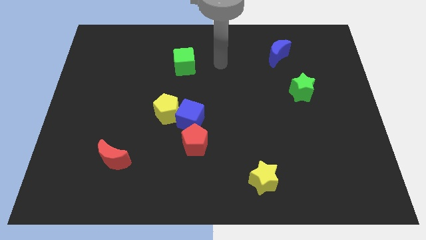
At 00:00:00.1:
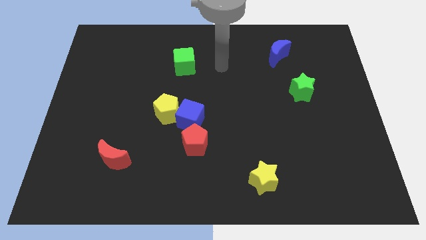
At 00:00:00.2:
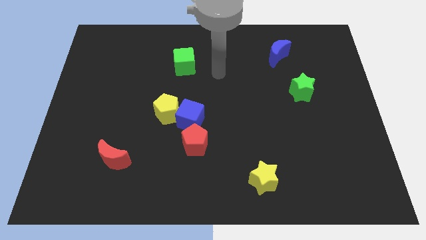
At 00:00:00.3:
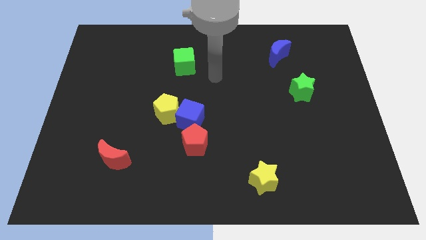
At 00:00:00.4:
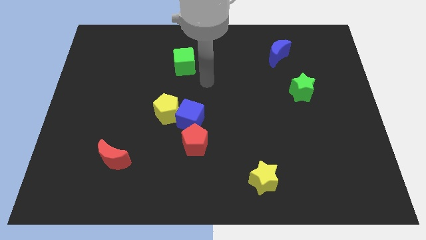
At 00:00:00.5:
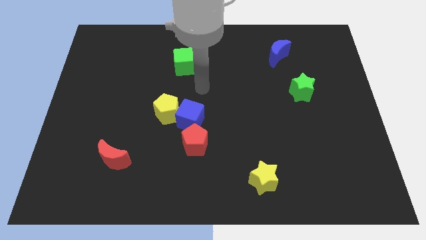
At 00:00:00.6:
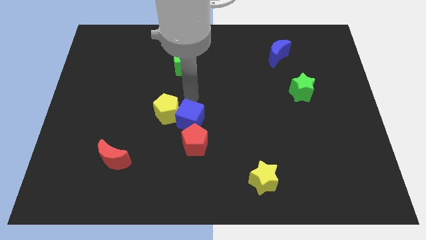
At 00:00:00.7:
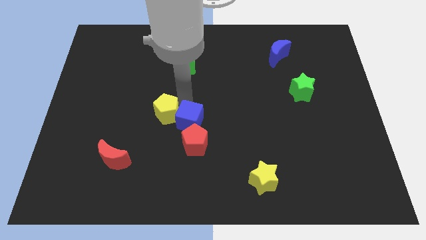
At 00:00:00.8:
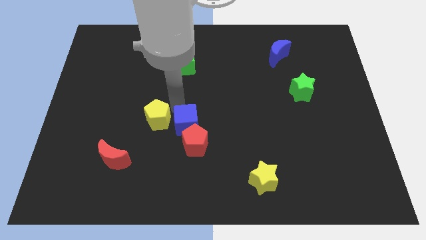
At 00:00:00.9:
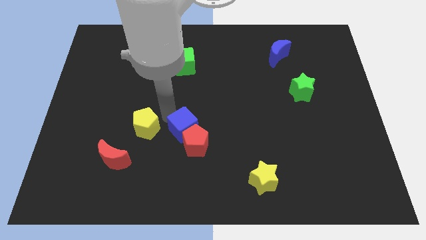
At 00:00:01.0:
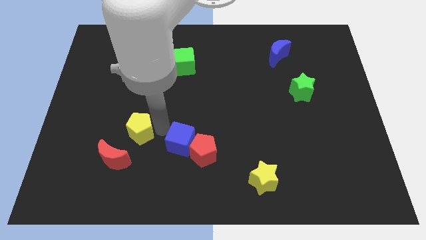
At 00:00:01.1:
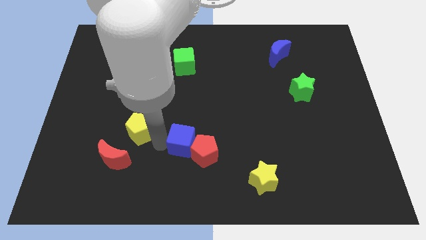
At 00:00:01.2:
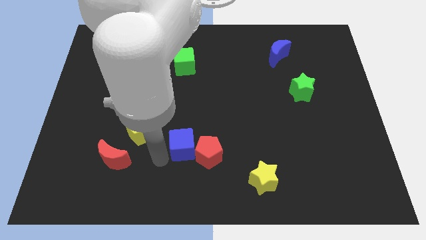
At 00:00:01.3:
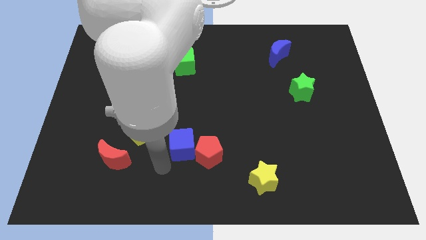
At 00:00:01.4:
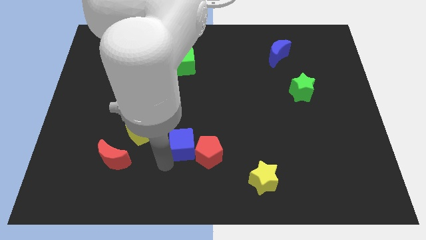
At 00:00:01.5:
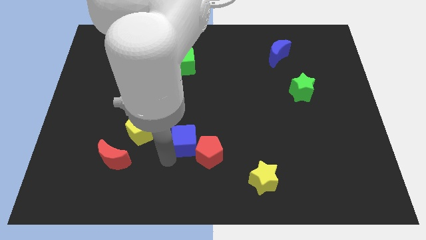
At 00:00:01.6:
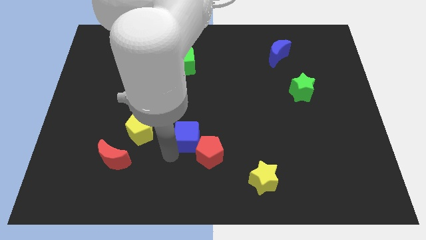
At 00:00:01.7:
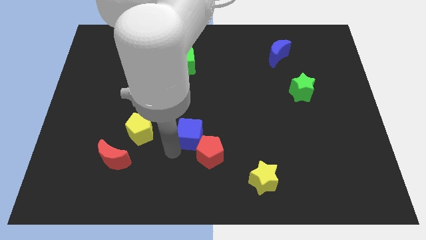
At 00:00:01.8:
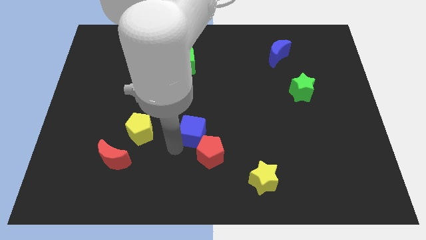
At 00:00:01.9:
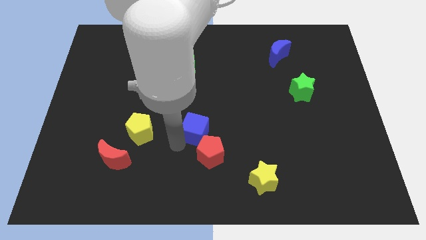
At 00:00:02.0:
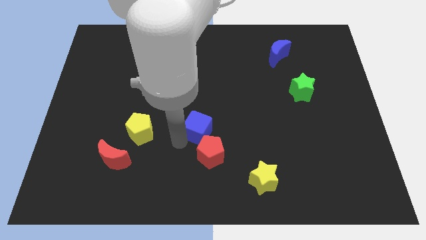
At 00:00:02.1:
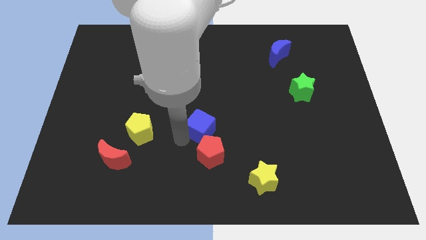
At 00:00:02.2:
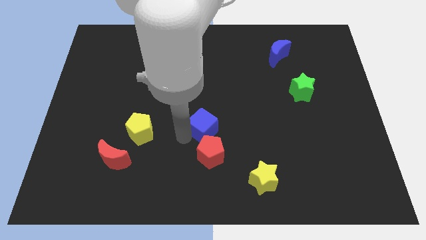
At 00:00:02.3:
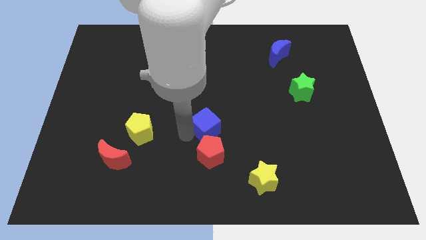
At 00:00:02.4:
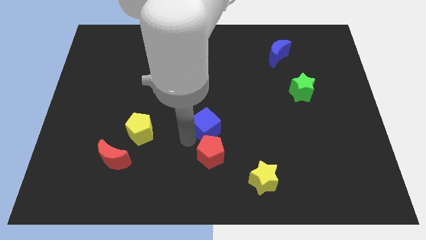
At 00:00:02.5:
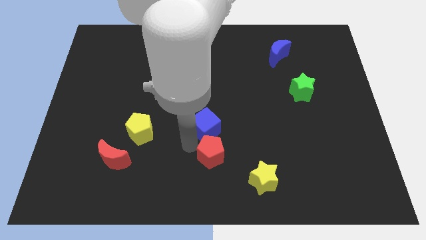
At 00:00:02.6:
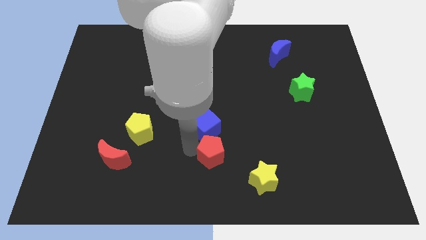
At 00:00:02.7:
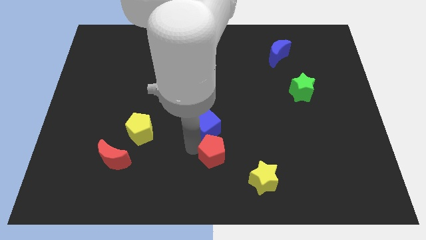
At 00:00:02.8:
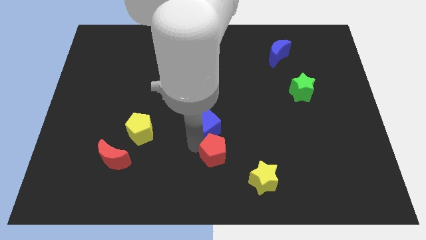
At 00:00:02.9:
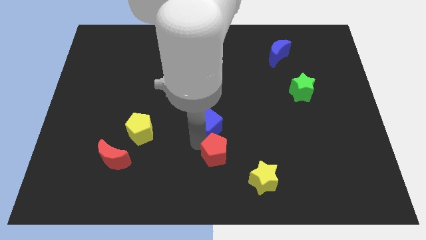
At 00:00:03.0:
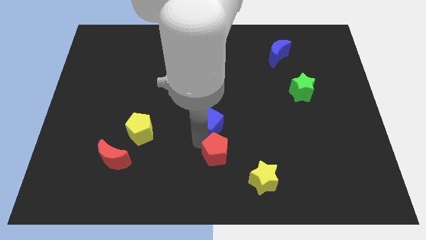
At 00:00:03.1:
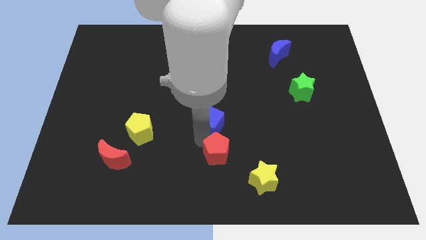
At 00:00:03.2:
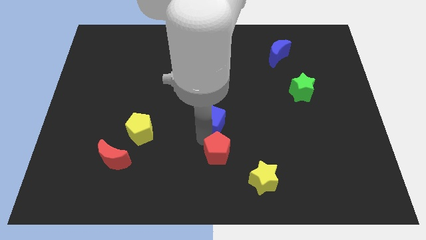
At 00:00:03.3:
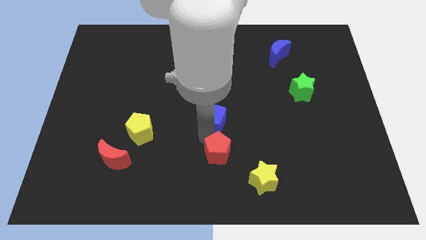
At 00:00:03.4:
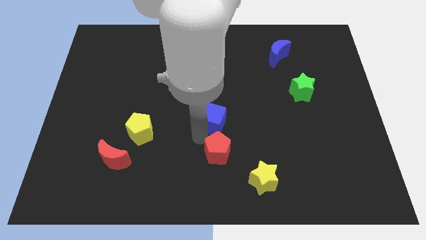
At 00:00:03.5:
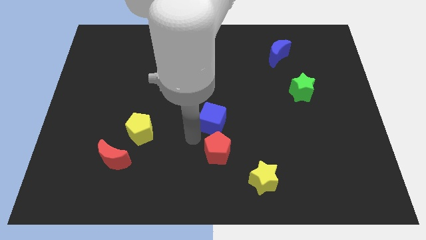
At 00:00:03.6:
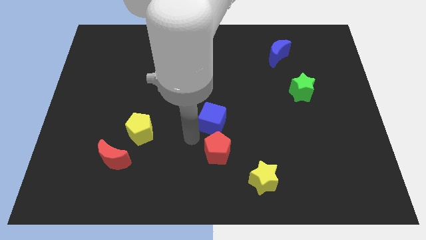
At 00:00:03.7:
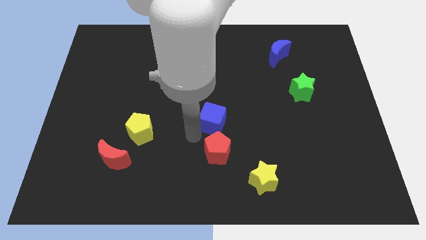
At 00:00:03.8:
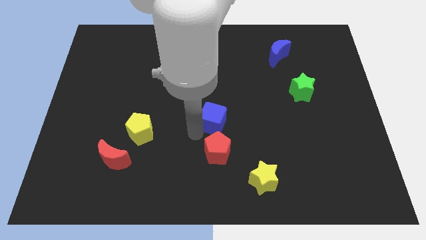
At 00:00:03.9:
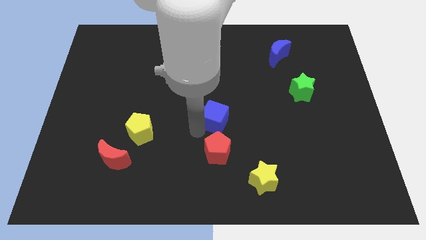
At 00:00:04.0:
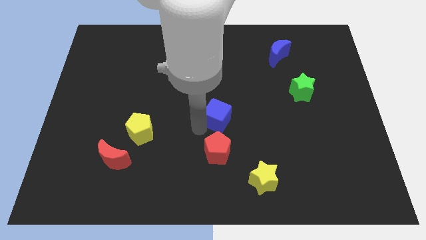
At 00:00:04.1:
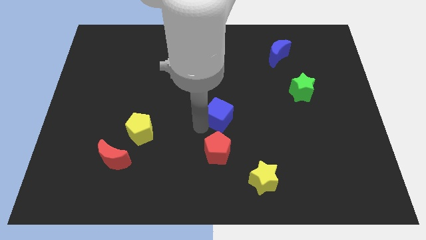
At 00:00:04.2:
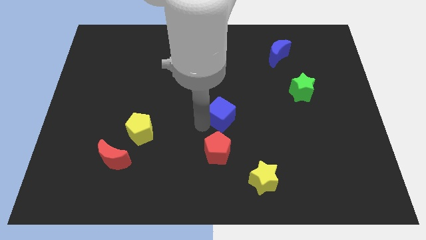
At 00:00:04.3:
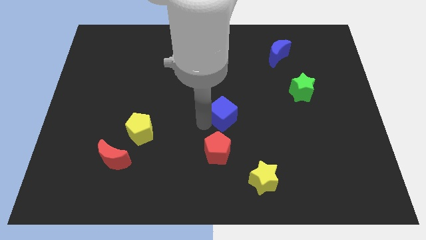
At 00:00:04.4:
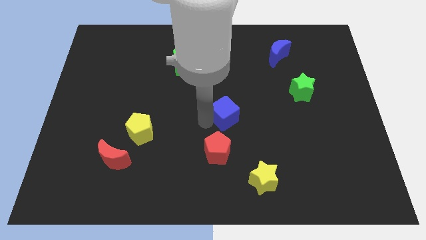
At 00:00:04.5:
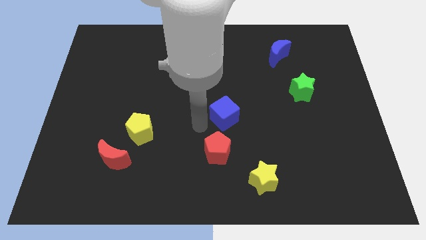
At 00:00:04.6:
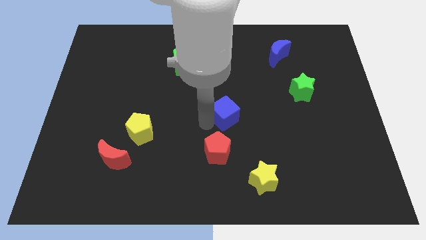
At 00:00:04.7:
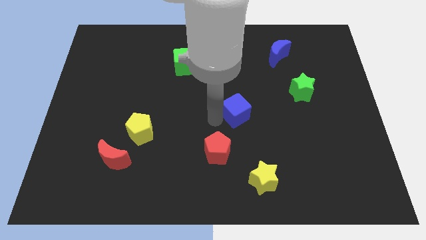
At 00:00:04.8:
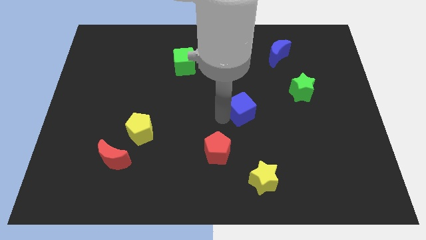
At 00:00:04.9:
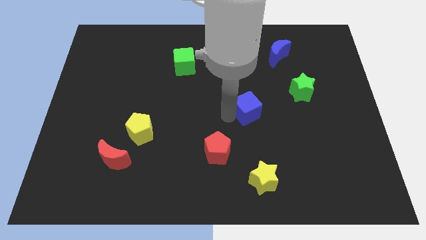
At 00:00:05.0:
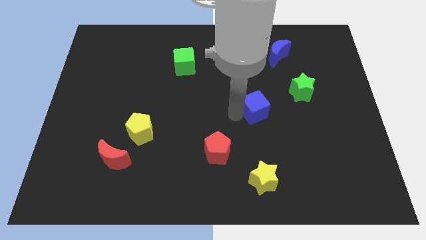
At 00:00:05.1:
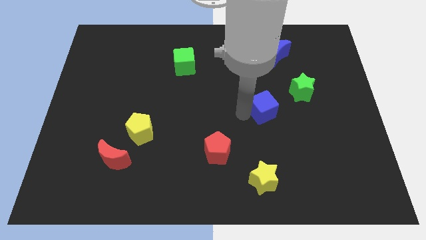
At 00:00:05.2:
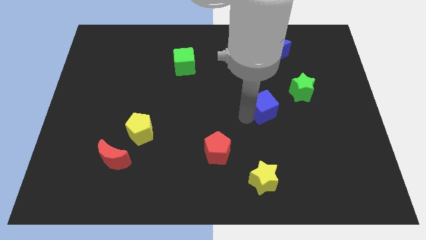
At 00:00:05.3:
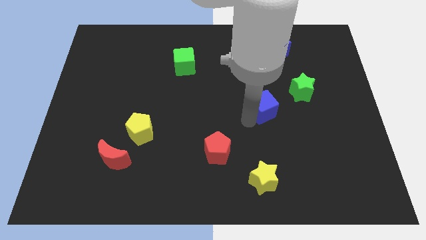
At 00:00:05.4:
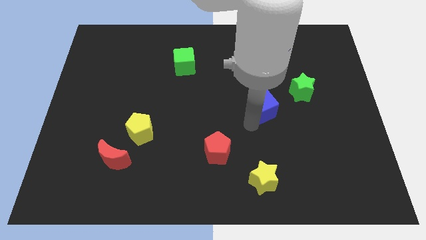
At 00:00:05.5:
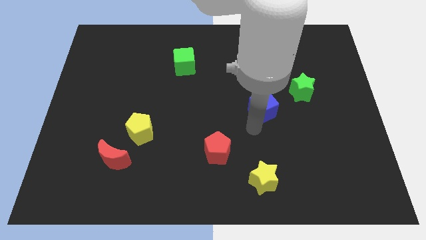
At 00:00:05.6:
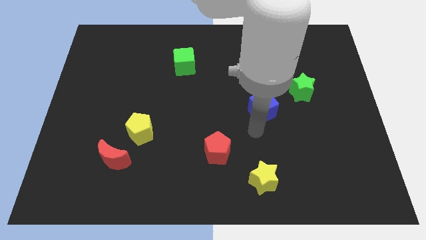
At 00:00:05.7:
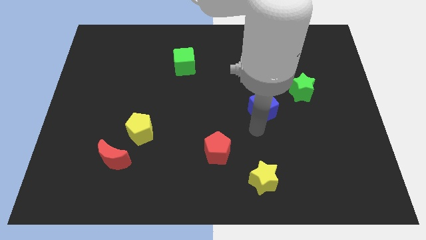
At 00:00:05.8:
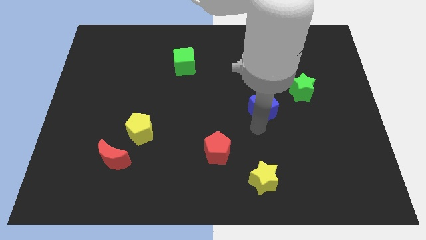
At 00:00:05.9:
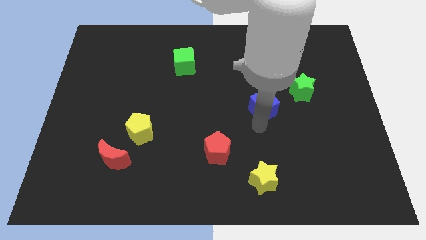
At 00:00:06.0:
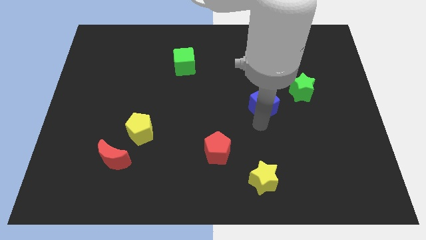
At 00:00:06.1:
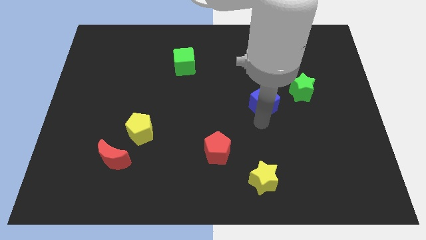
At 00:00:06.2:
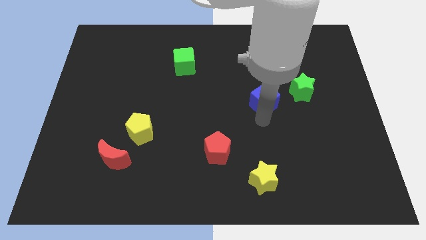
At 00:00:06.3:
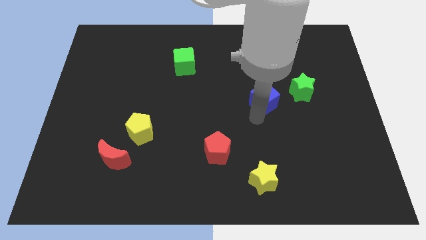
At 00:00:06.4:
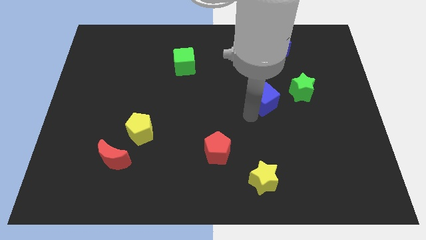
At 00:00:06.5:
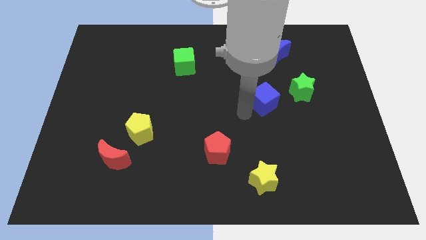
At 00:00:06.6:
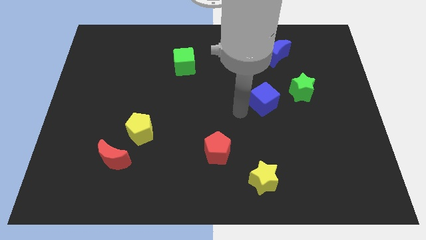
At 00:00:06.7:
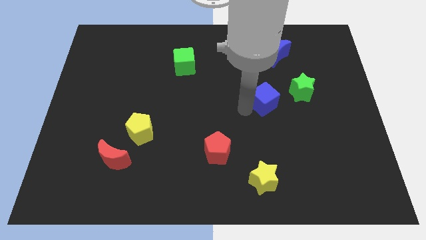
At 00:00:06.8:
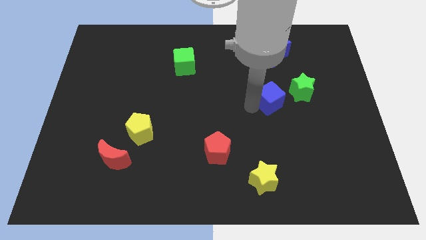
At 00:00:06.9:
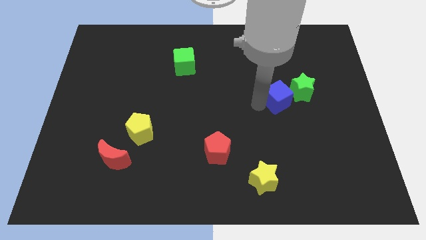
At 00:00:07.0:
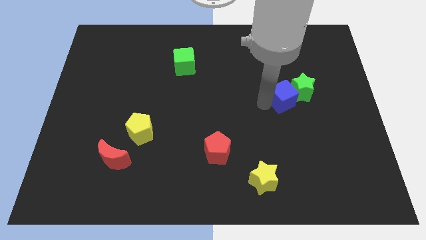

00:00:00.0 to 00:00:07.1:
slide the blue cube close to the green star
